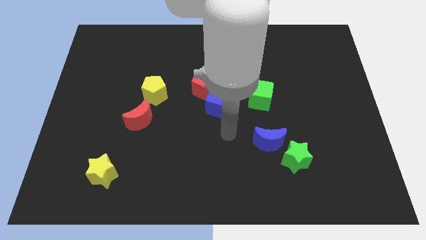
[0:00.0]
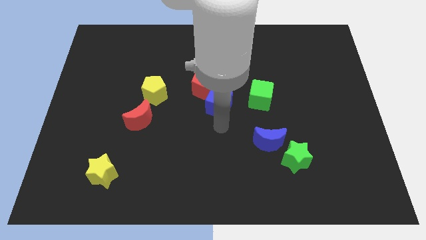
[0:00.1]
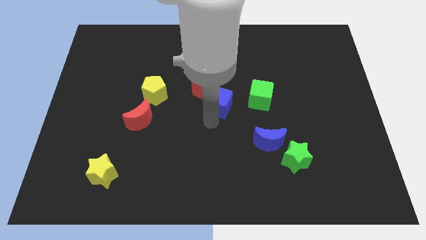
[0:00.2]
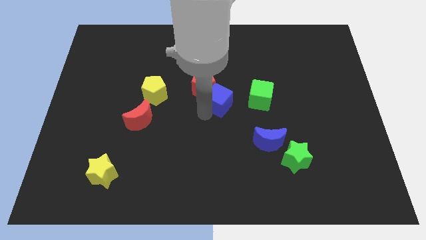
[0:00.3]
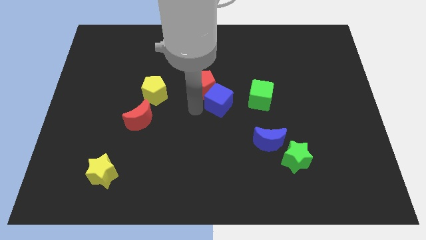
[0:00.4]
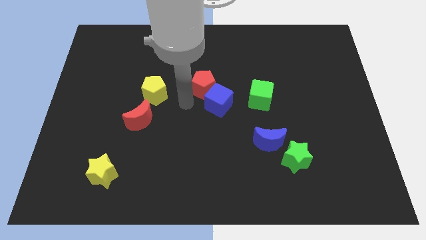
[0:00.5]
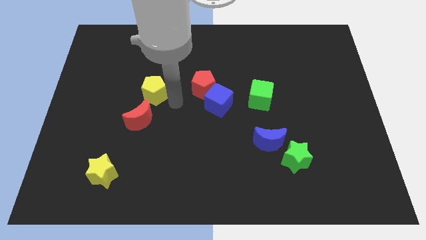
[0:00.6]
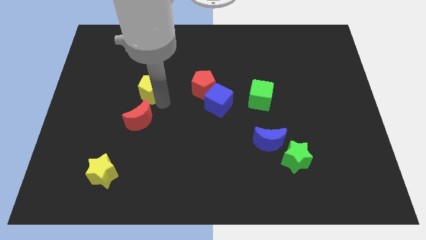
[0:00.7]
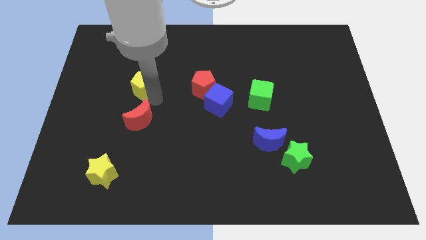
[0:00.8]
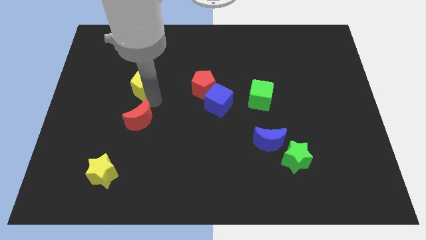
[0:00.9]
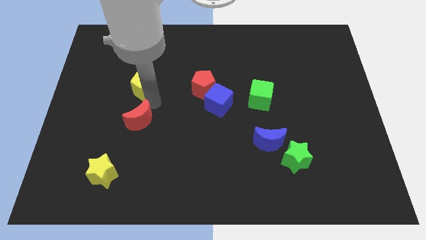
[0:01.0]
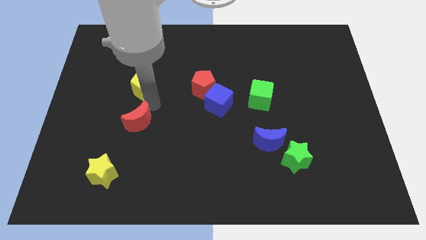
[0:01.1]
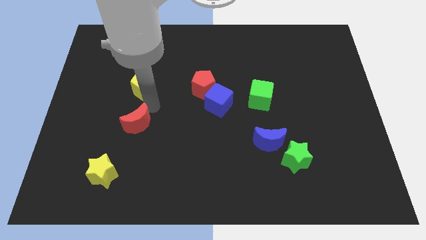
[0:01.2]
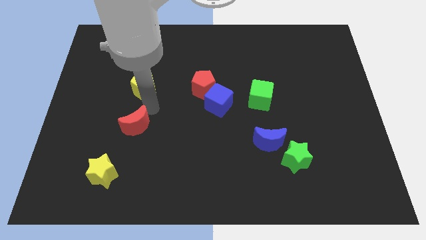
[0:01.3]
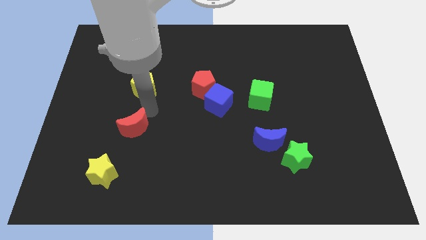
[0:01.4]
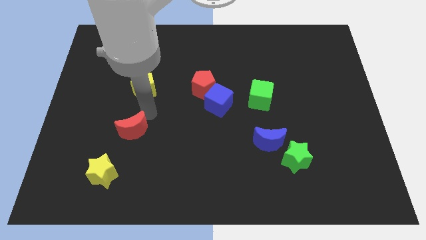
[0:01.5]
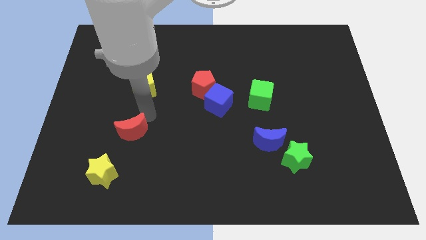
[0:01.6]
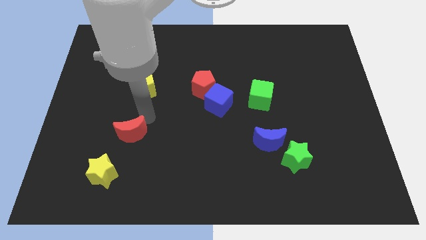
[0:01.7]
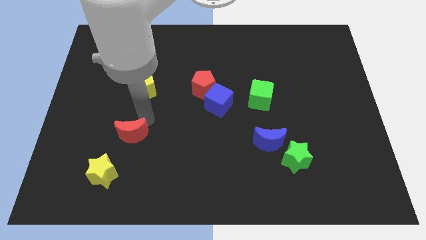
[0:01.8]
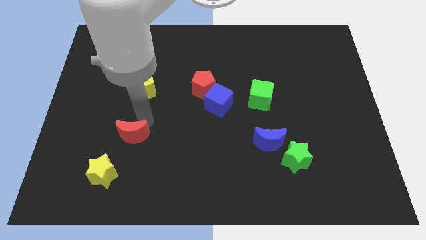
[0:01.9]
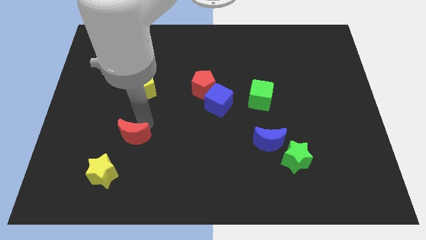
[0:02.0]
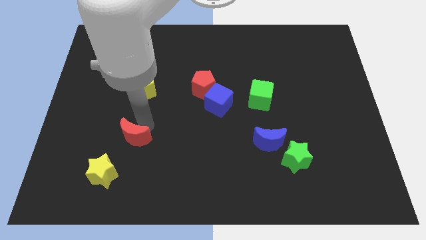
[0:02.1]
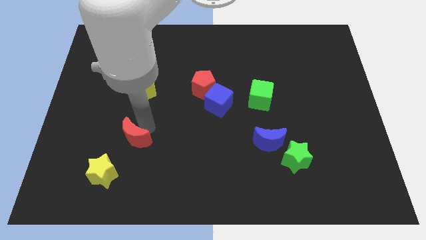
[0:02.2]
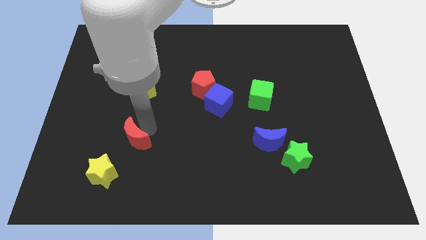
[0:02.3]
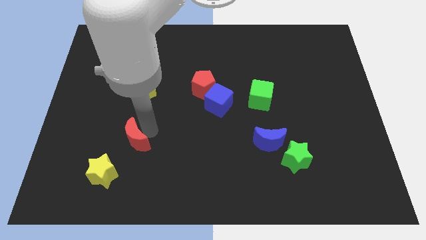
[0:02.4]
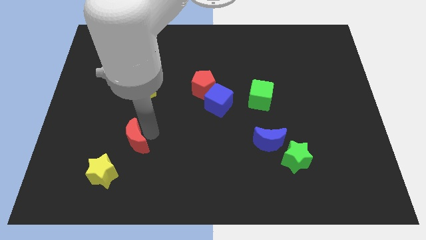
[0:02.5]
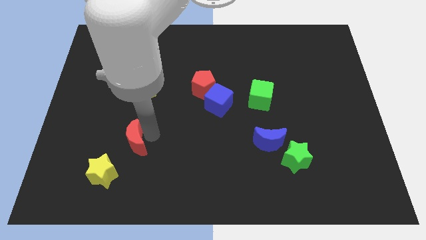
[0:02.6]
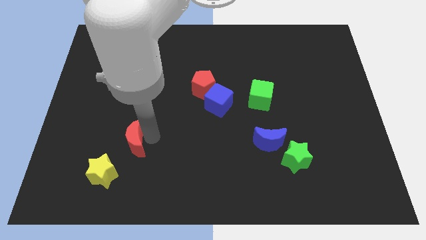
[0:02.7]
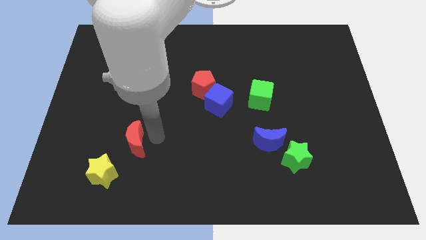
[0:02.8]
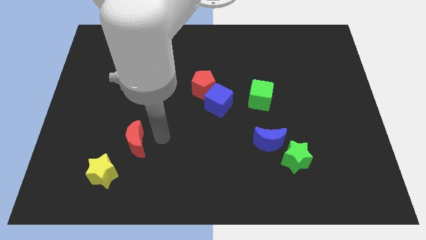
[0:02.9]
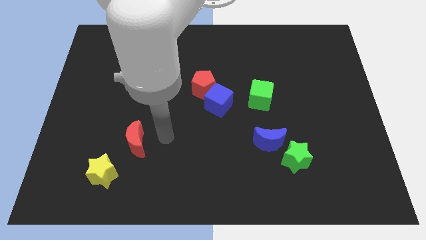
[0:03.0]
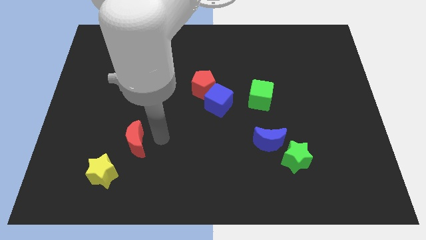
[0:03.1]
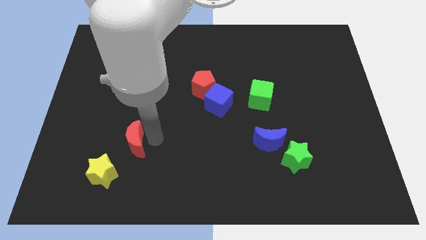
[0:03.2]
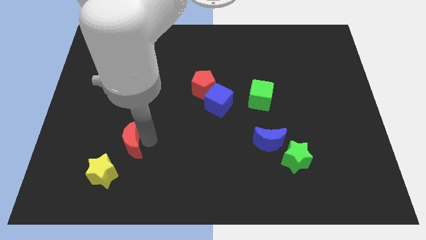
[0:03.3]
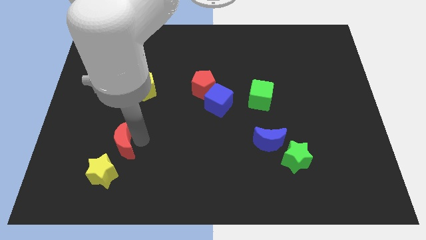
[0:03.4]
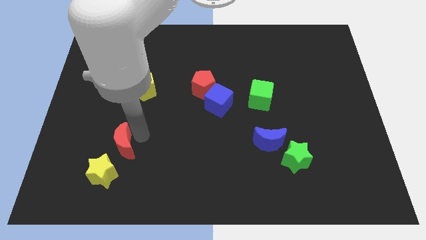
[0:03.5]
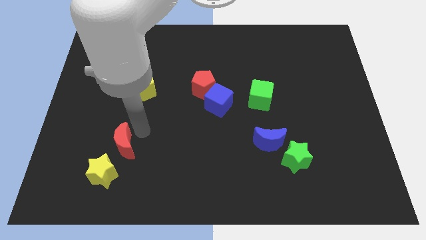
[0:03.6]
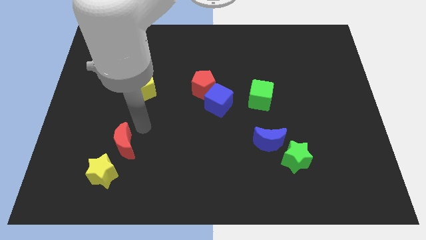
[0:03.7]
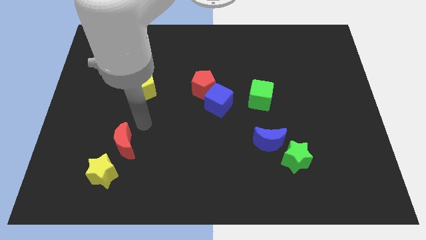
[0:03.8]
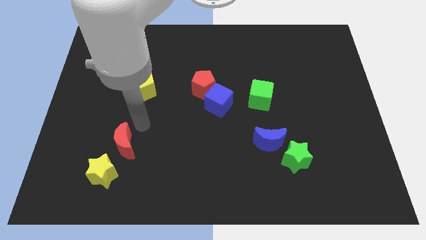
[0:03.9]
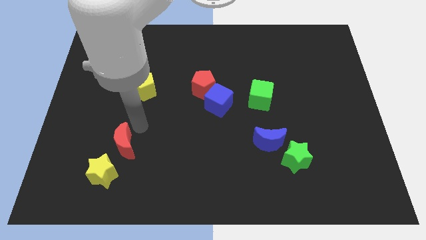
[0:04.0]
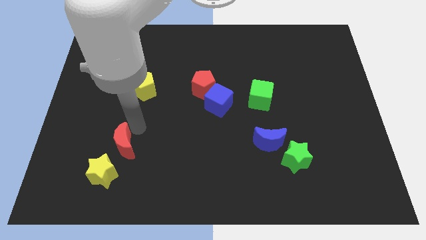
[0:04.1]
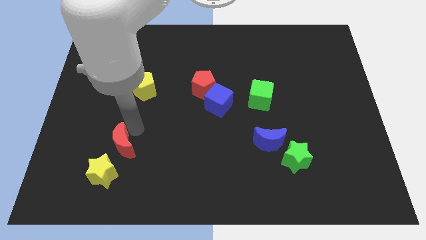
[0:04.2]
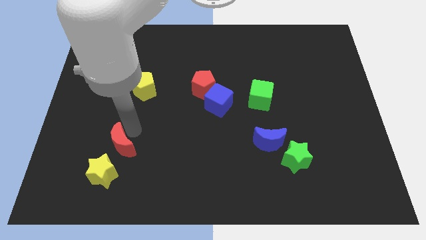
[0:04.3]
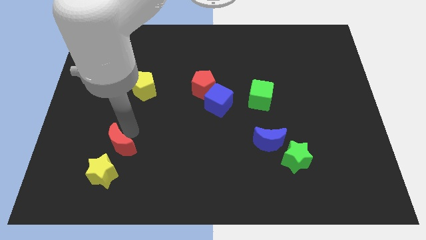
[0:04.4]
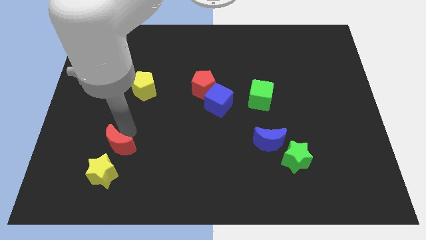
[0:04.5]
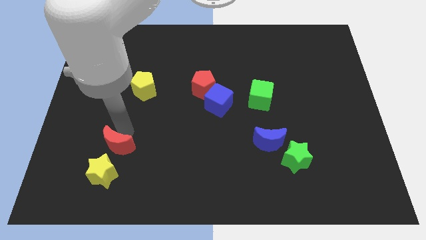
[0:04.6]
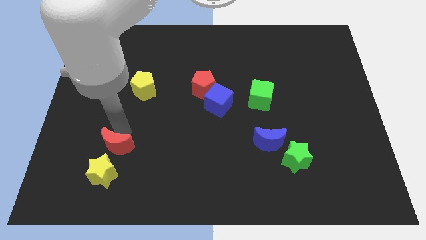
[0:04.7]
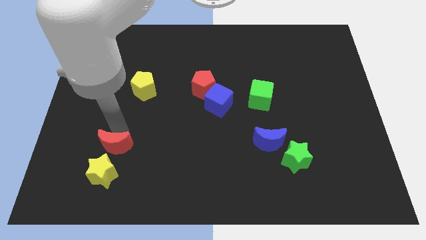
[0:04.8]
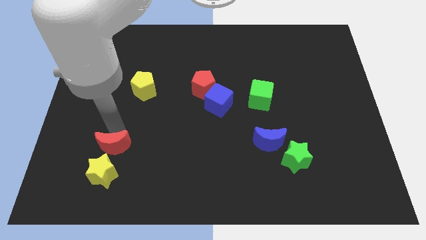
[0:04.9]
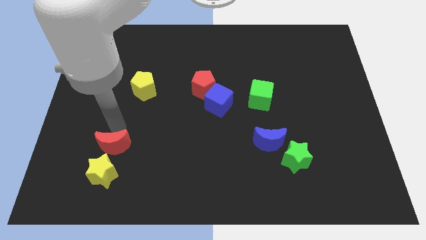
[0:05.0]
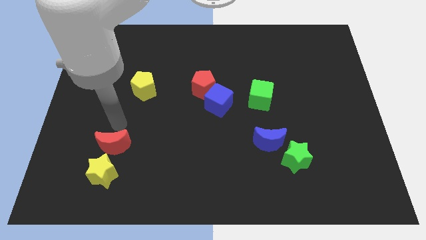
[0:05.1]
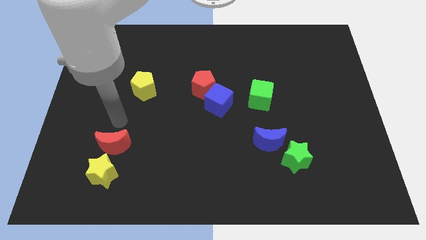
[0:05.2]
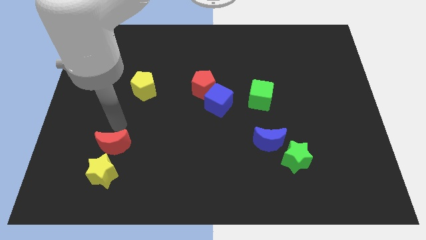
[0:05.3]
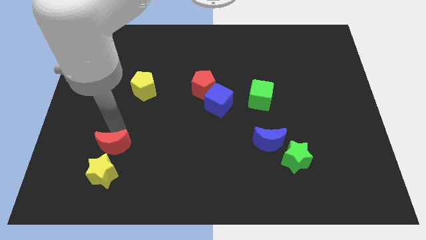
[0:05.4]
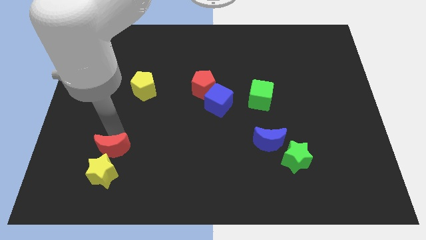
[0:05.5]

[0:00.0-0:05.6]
push the red moon next to the yellow star

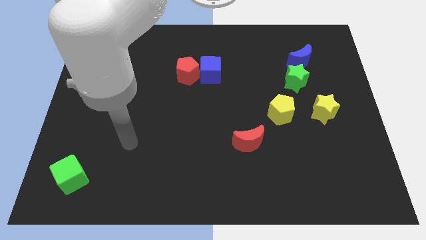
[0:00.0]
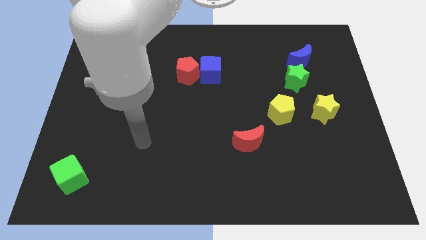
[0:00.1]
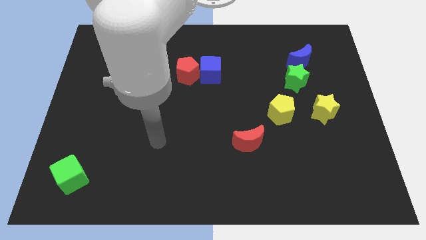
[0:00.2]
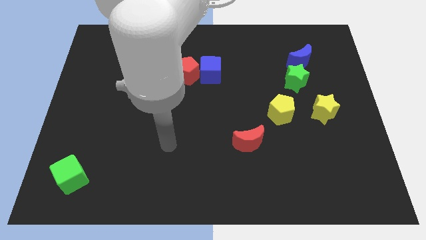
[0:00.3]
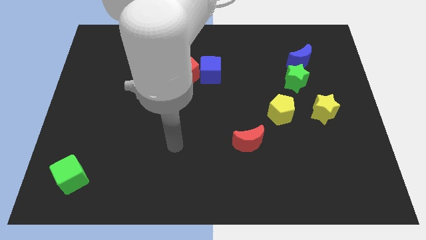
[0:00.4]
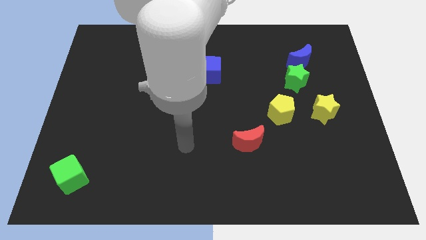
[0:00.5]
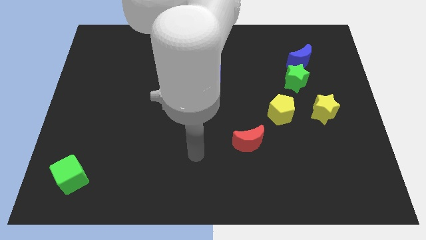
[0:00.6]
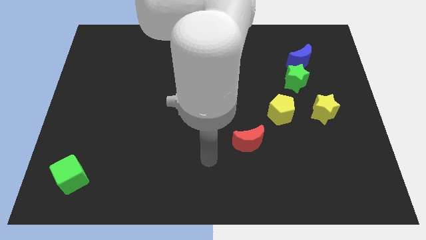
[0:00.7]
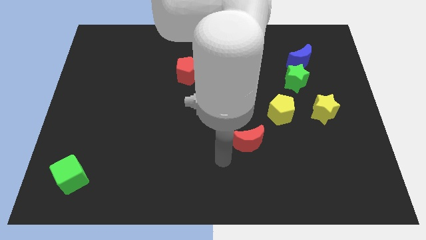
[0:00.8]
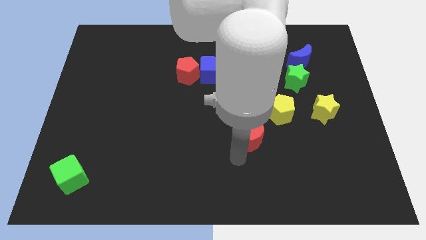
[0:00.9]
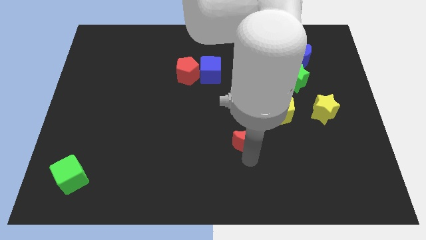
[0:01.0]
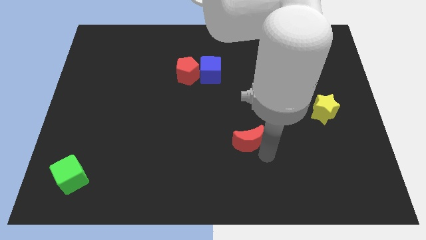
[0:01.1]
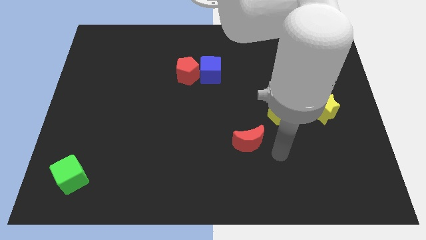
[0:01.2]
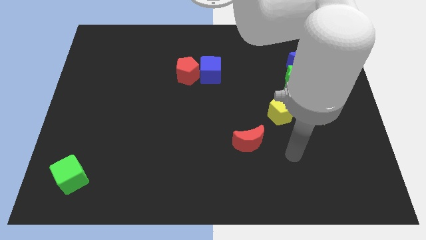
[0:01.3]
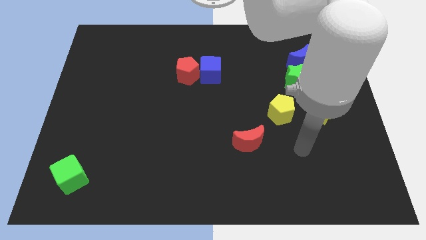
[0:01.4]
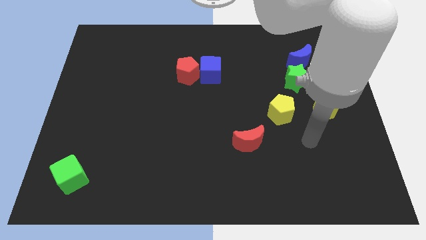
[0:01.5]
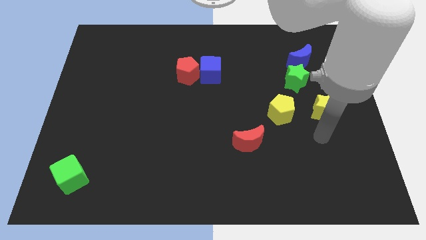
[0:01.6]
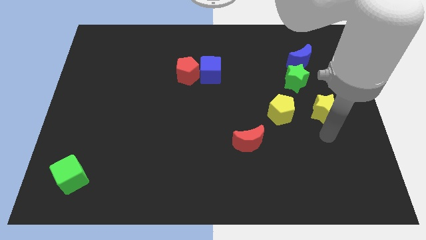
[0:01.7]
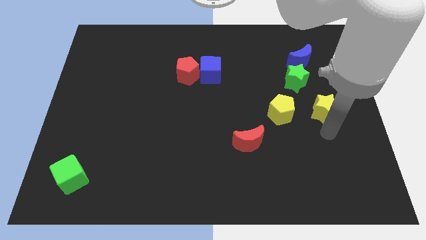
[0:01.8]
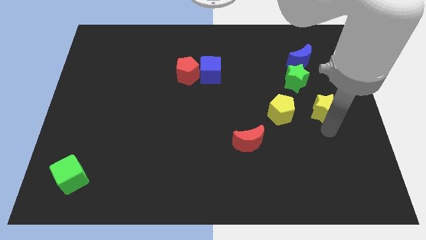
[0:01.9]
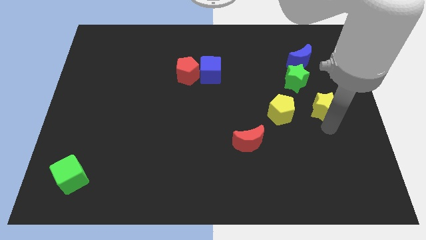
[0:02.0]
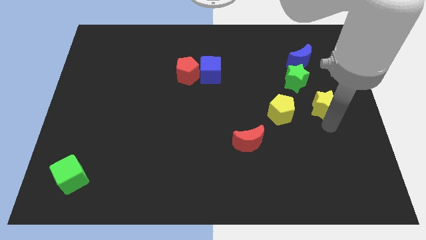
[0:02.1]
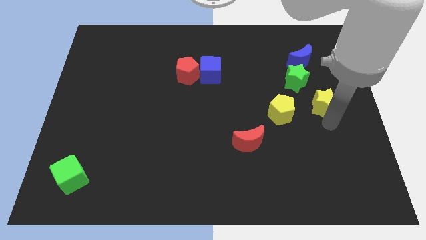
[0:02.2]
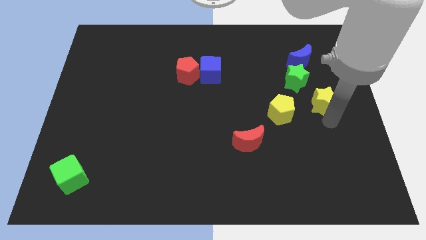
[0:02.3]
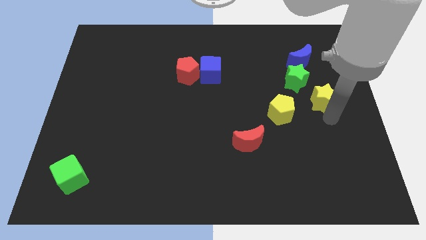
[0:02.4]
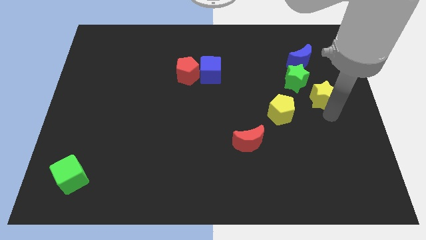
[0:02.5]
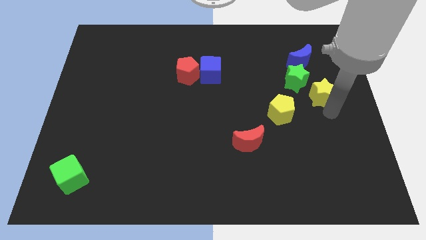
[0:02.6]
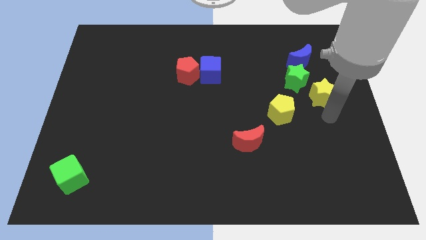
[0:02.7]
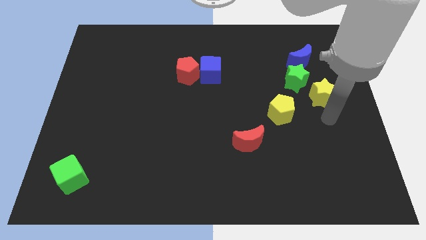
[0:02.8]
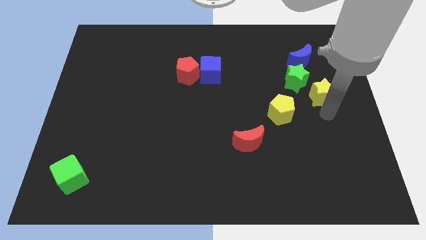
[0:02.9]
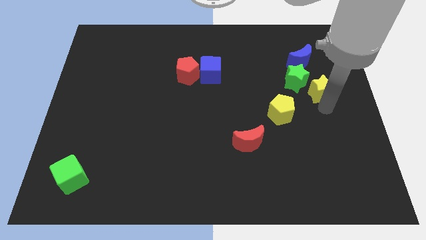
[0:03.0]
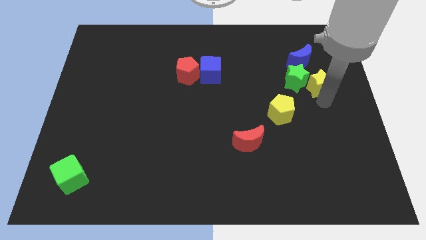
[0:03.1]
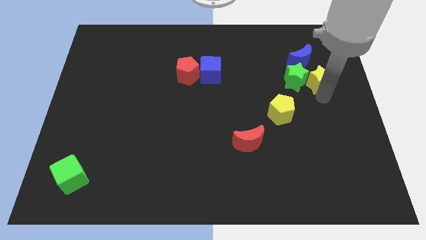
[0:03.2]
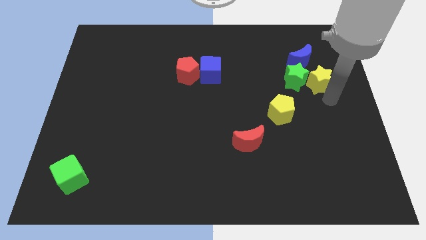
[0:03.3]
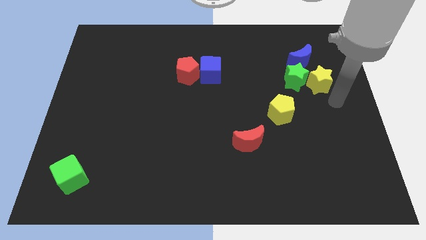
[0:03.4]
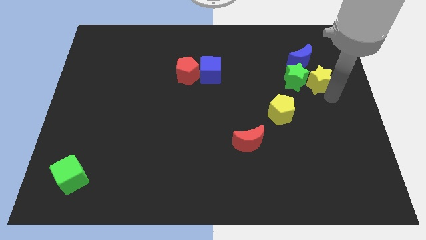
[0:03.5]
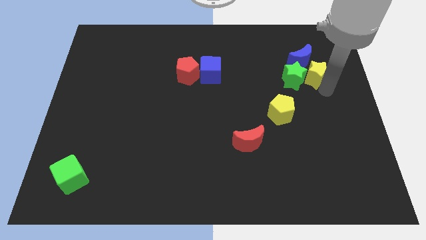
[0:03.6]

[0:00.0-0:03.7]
move the yellow star towards the blue moon
